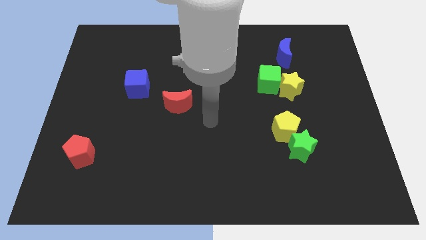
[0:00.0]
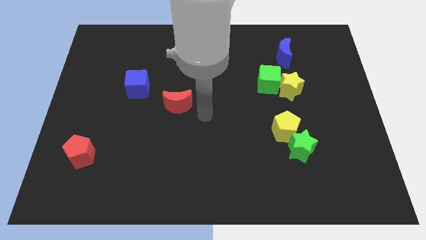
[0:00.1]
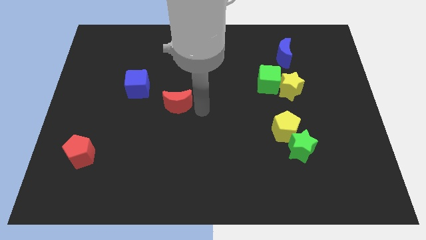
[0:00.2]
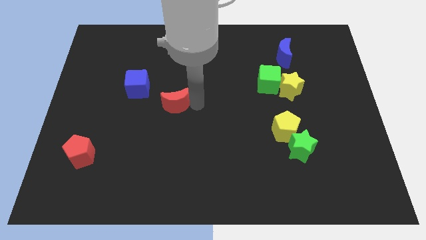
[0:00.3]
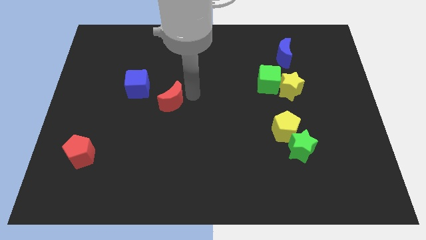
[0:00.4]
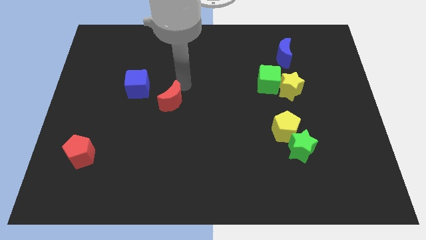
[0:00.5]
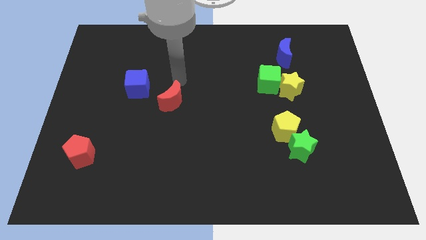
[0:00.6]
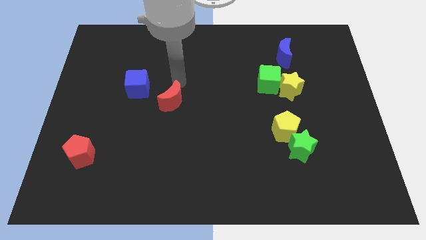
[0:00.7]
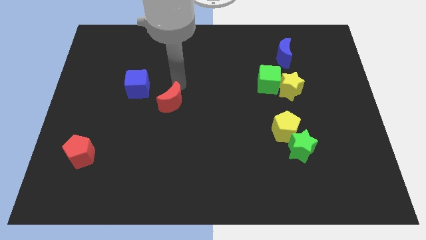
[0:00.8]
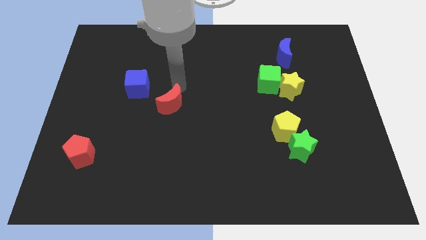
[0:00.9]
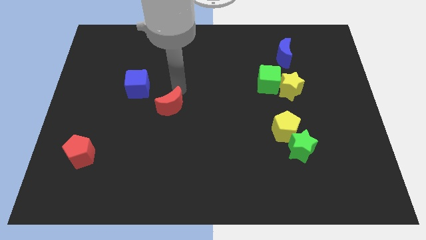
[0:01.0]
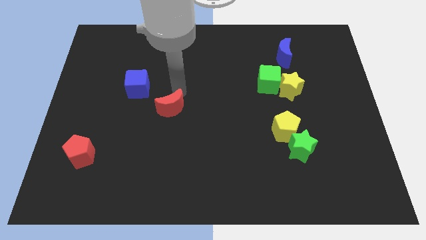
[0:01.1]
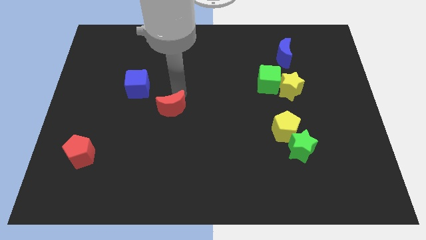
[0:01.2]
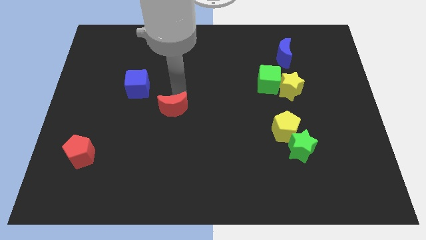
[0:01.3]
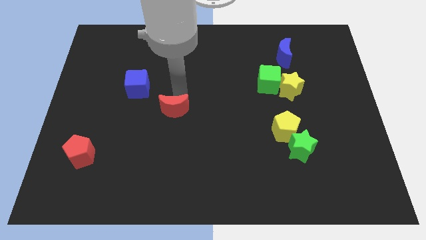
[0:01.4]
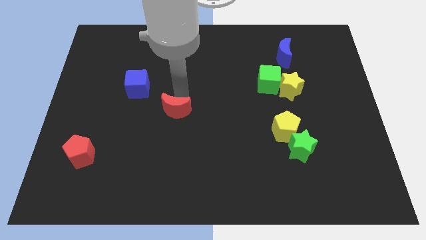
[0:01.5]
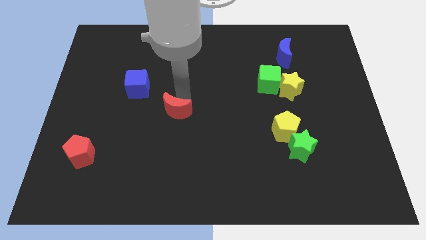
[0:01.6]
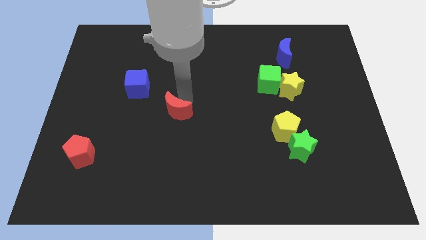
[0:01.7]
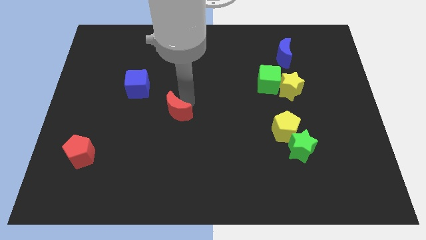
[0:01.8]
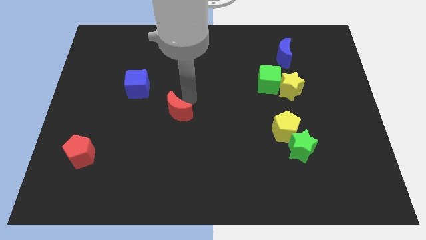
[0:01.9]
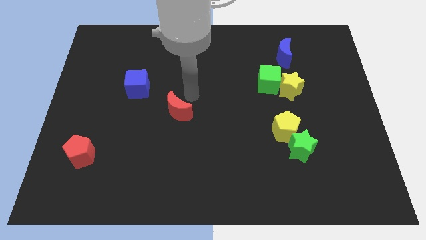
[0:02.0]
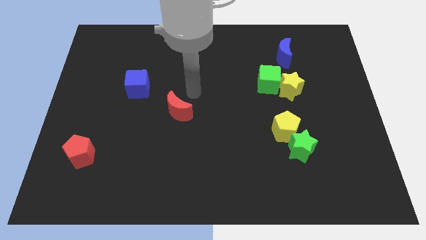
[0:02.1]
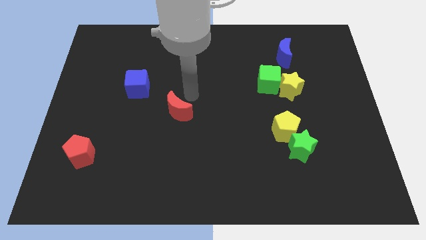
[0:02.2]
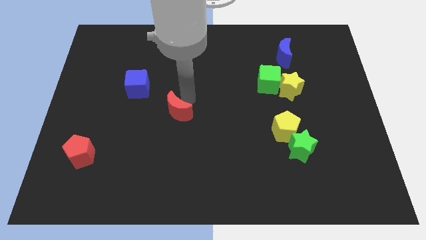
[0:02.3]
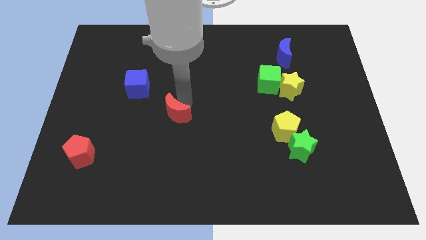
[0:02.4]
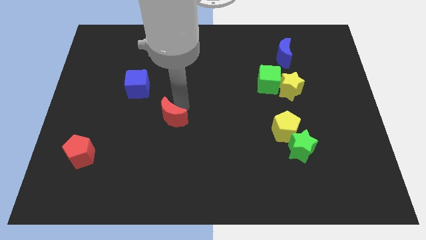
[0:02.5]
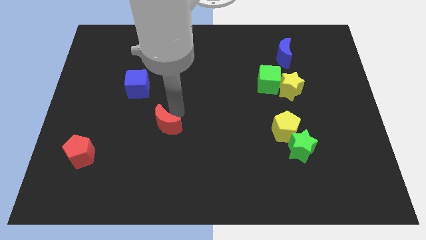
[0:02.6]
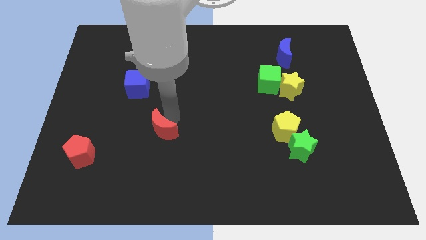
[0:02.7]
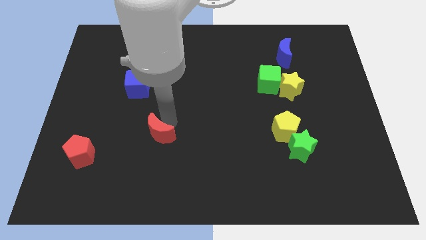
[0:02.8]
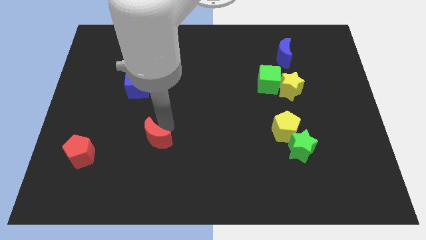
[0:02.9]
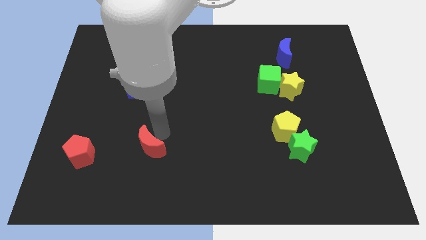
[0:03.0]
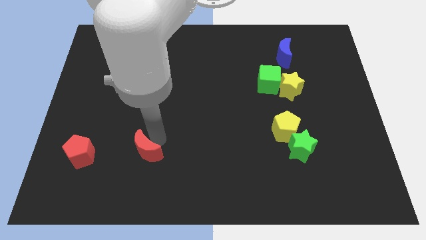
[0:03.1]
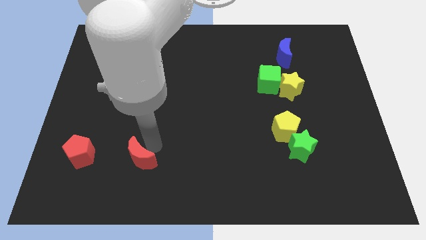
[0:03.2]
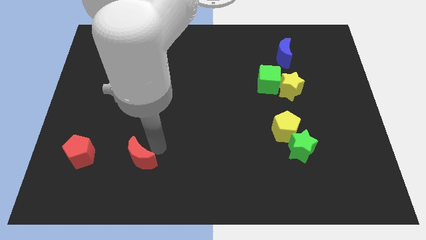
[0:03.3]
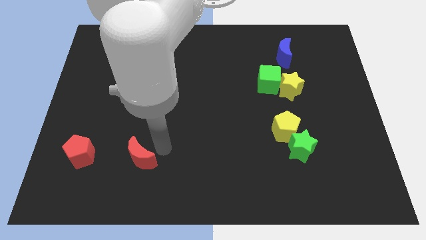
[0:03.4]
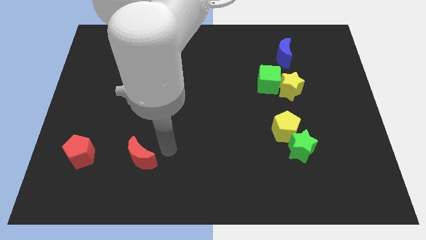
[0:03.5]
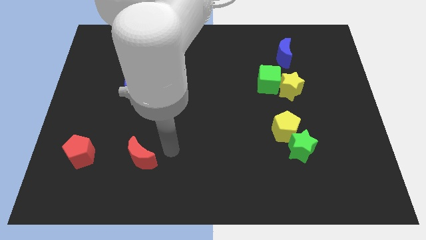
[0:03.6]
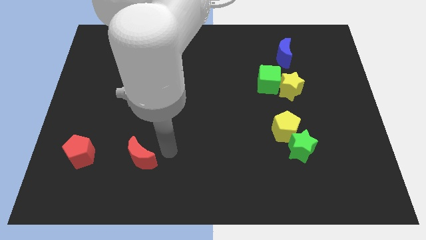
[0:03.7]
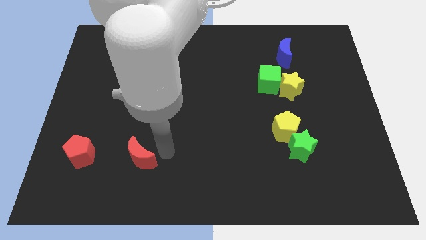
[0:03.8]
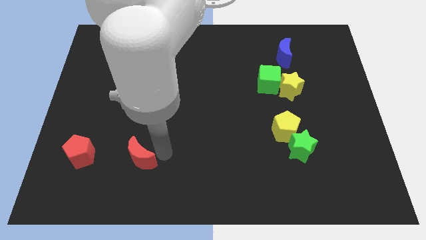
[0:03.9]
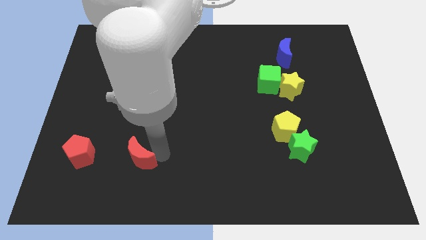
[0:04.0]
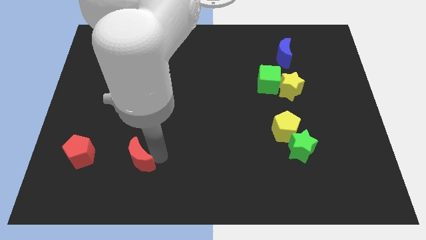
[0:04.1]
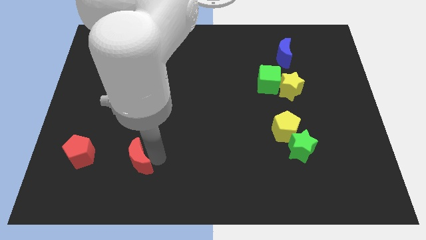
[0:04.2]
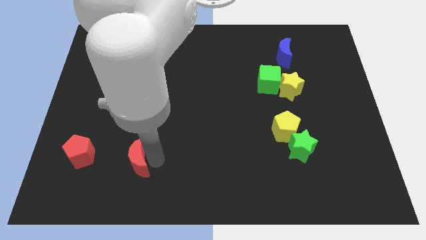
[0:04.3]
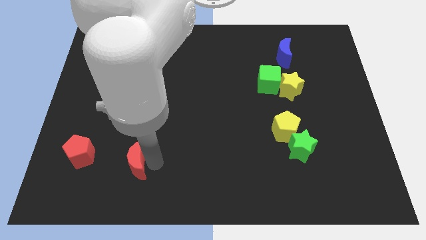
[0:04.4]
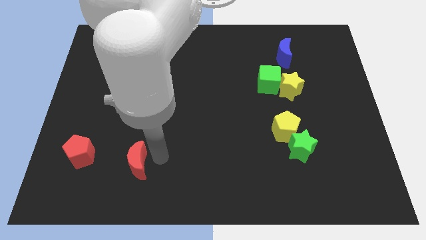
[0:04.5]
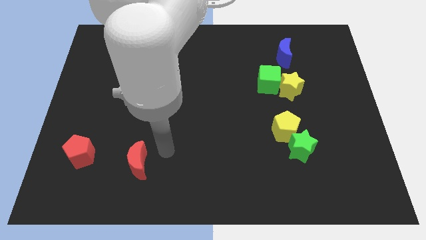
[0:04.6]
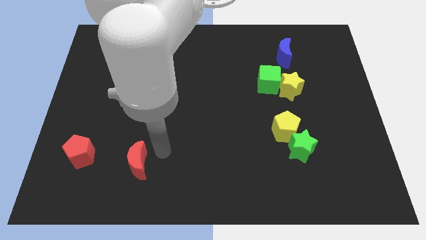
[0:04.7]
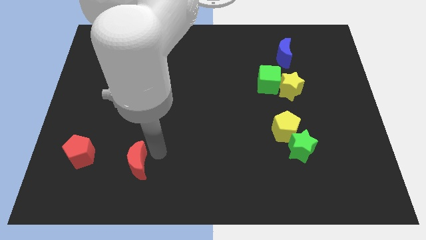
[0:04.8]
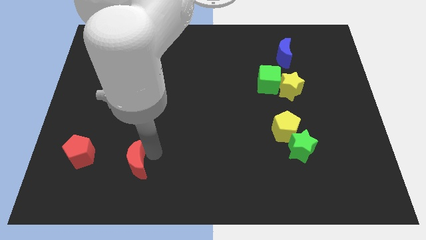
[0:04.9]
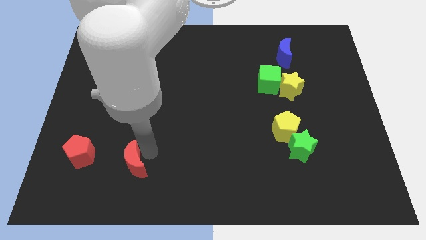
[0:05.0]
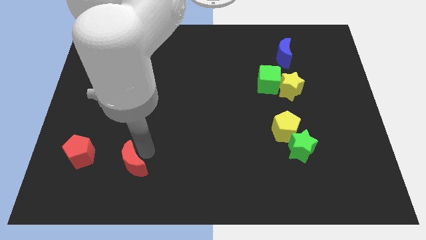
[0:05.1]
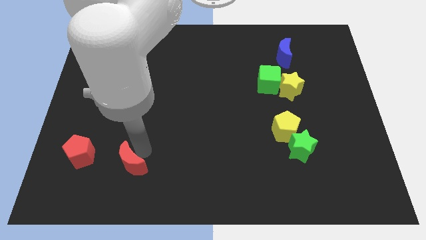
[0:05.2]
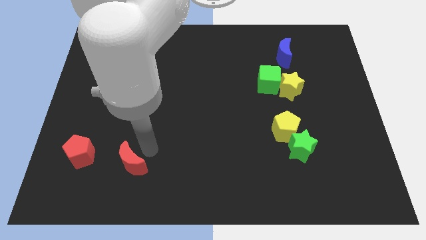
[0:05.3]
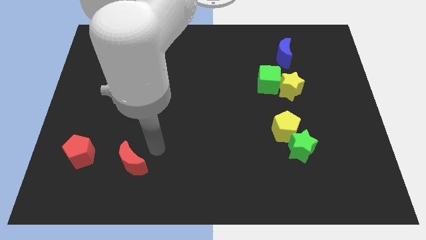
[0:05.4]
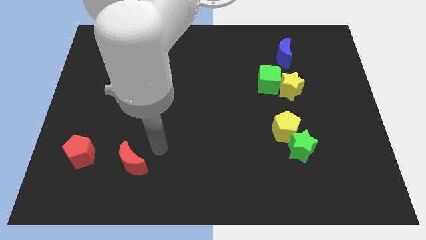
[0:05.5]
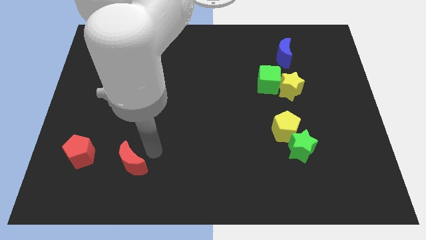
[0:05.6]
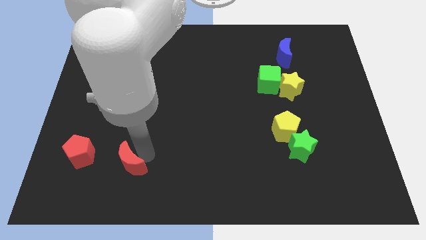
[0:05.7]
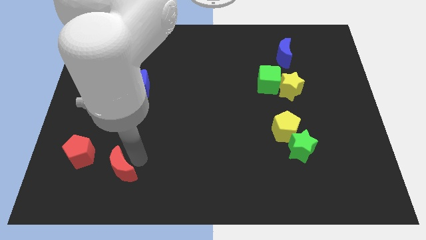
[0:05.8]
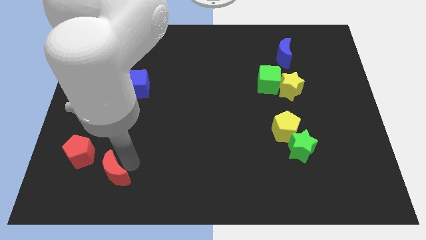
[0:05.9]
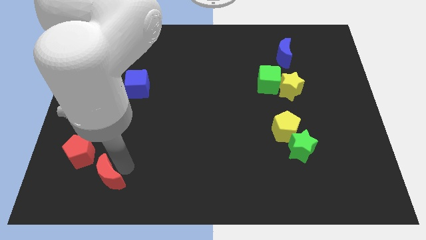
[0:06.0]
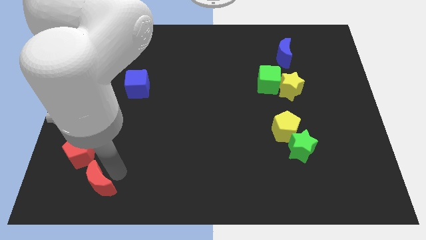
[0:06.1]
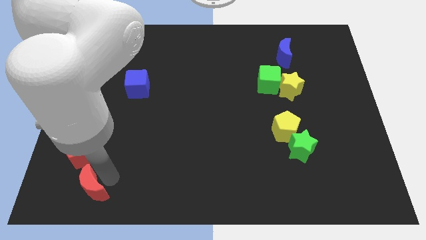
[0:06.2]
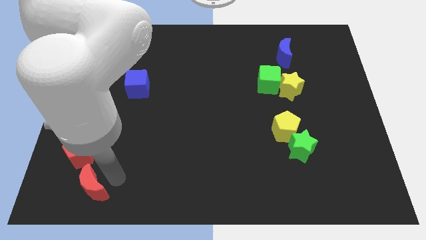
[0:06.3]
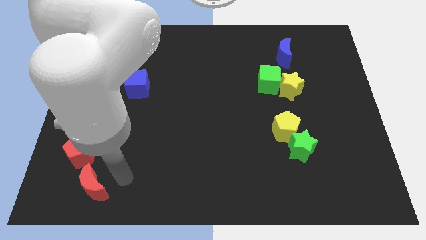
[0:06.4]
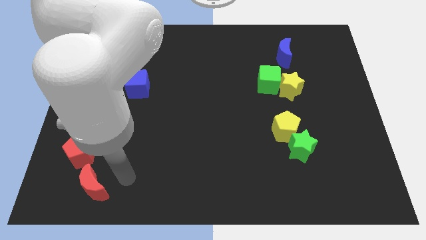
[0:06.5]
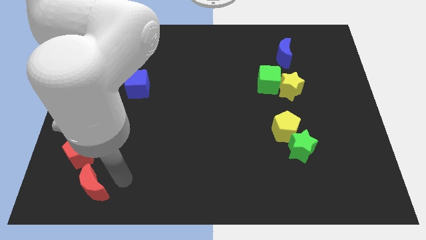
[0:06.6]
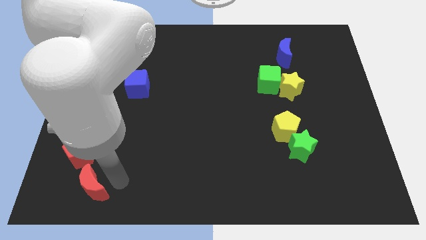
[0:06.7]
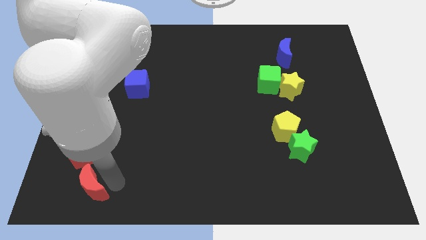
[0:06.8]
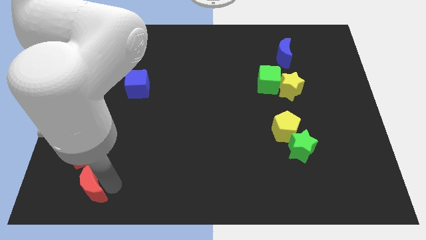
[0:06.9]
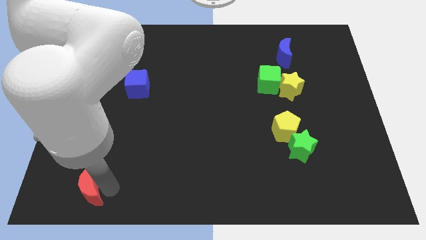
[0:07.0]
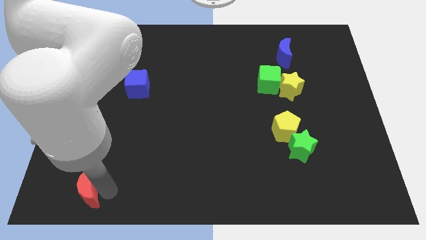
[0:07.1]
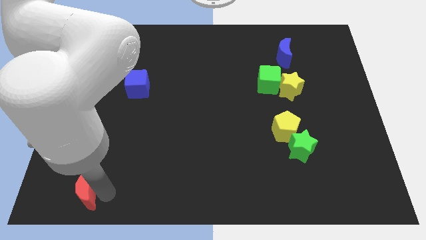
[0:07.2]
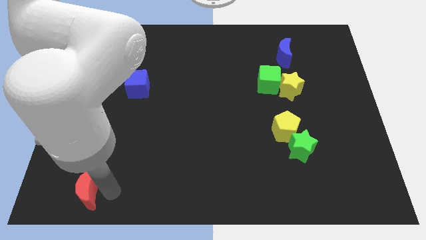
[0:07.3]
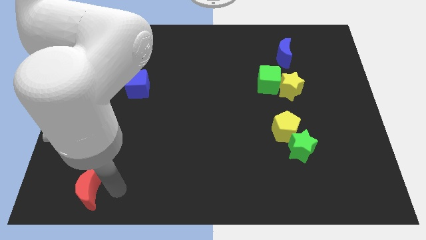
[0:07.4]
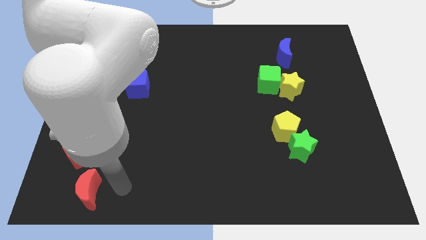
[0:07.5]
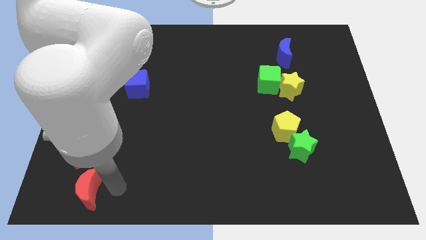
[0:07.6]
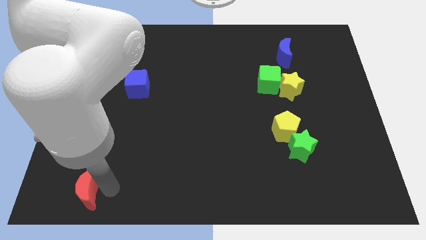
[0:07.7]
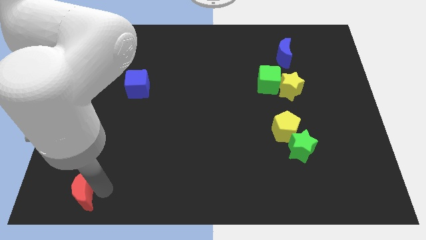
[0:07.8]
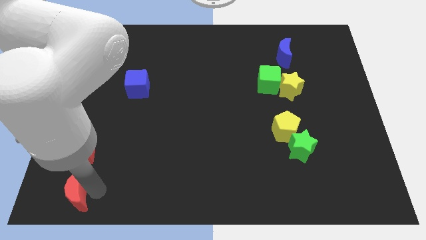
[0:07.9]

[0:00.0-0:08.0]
slide the red moon to the bottom left of the board
